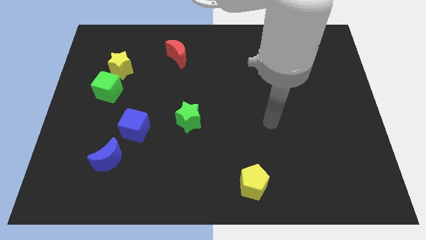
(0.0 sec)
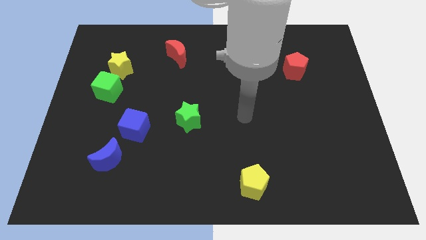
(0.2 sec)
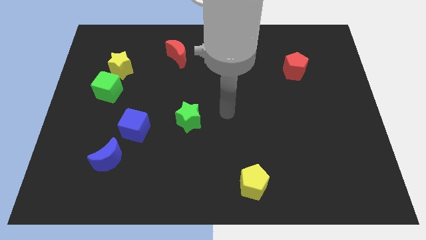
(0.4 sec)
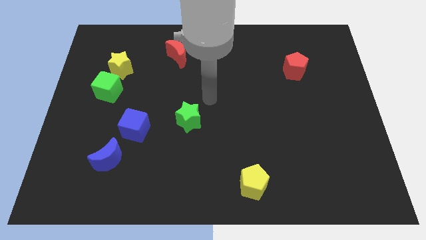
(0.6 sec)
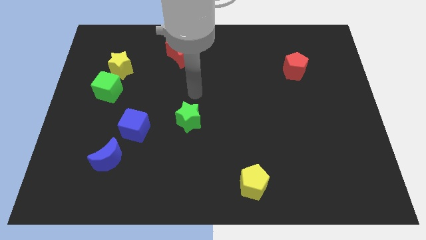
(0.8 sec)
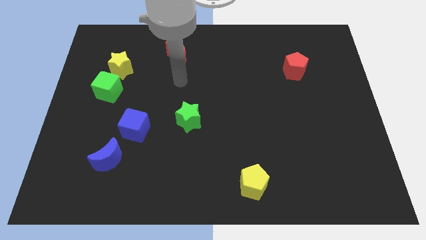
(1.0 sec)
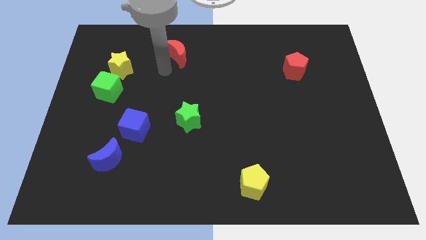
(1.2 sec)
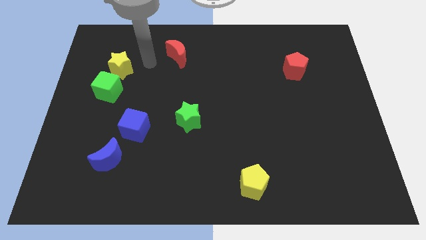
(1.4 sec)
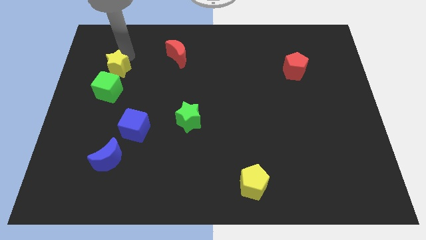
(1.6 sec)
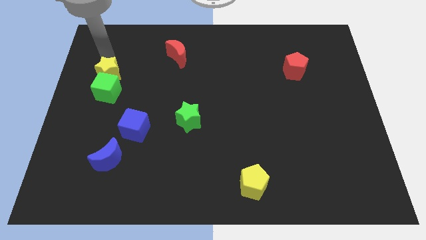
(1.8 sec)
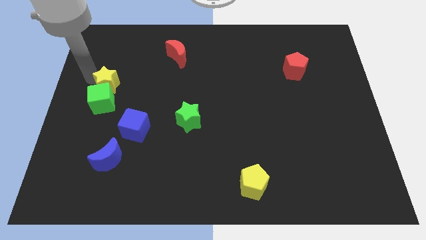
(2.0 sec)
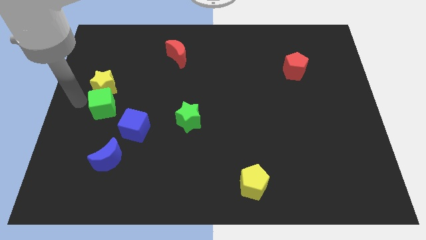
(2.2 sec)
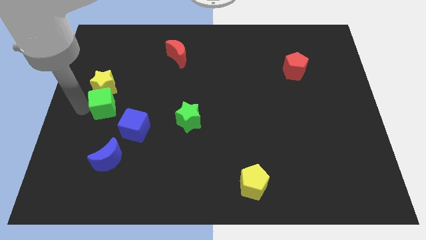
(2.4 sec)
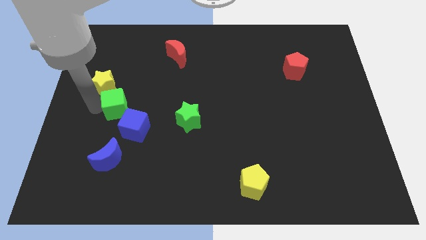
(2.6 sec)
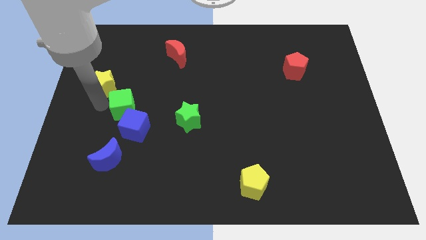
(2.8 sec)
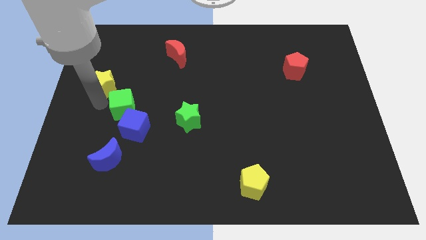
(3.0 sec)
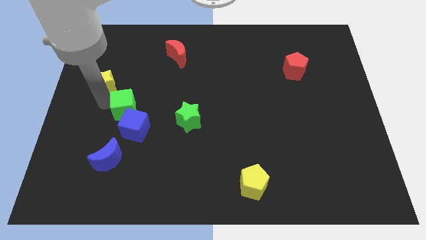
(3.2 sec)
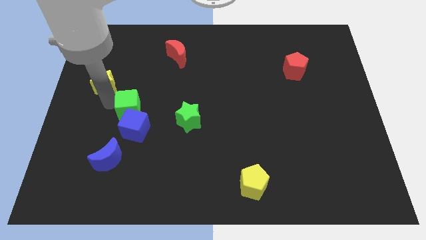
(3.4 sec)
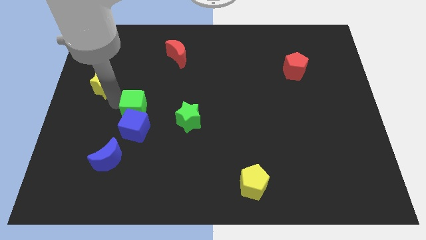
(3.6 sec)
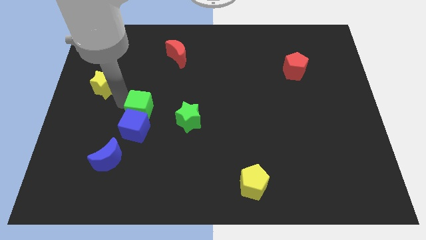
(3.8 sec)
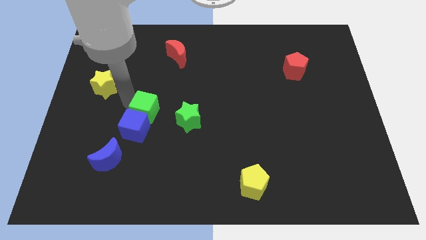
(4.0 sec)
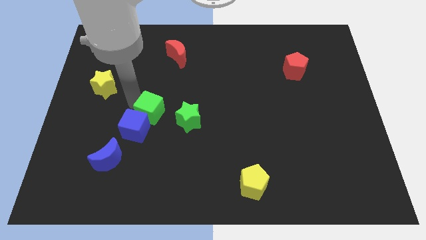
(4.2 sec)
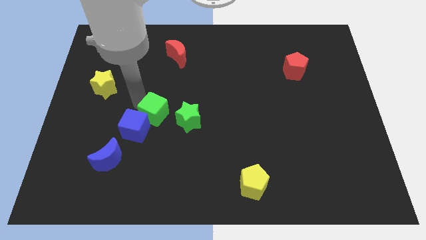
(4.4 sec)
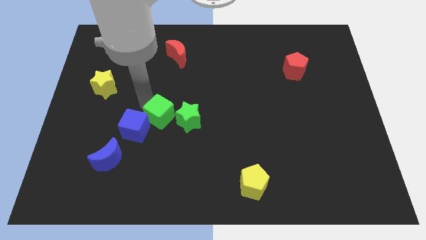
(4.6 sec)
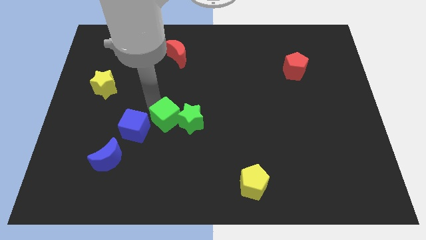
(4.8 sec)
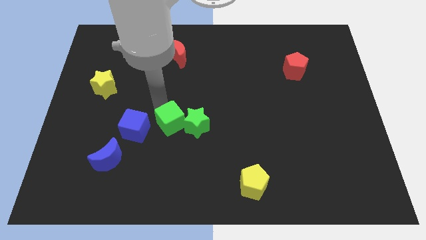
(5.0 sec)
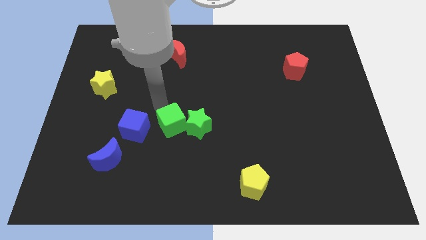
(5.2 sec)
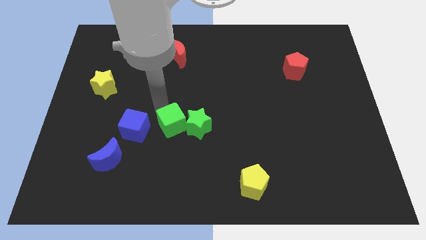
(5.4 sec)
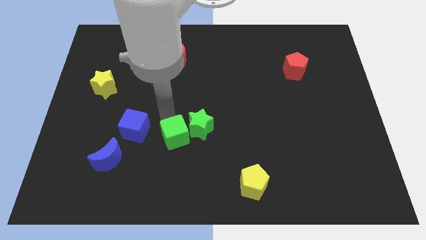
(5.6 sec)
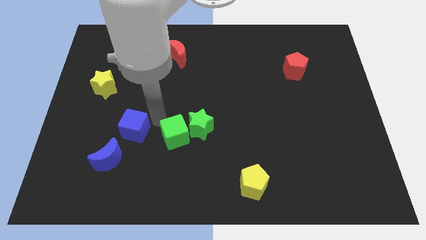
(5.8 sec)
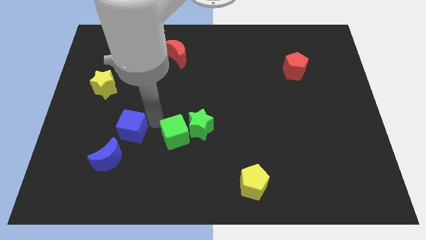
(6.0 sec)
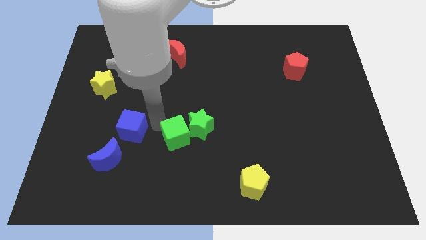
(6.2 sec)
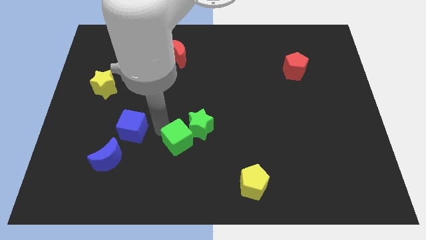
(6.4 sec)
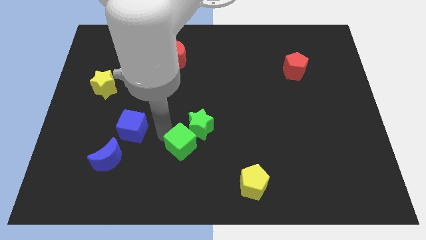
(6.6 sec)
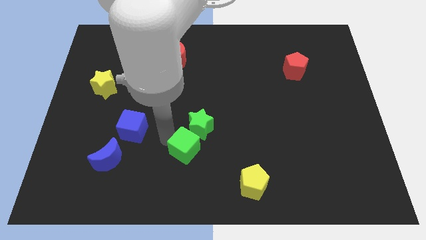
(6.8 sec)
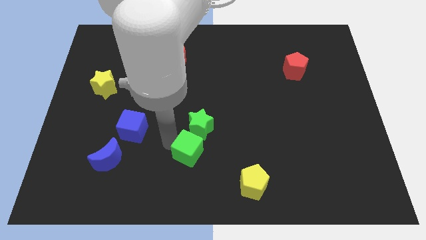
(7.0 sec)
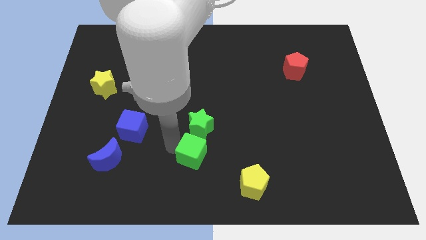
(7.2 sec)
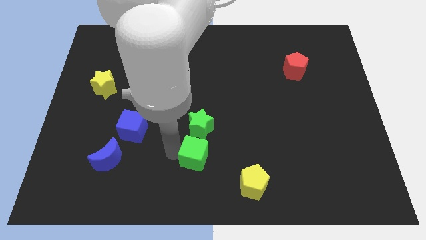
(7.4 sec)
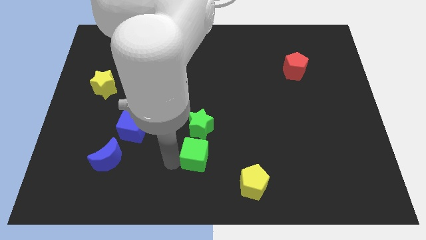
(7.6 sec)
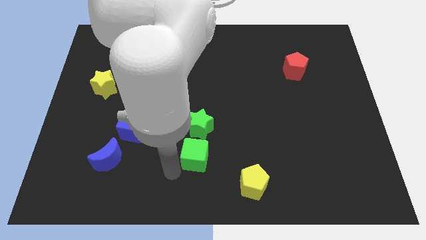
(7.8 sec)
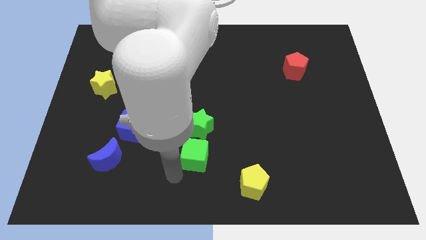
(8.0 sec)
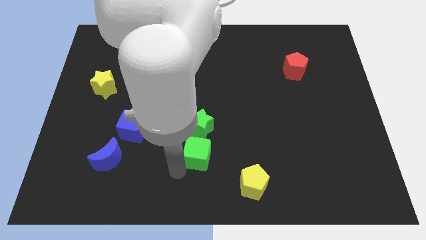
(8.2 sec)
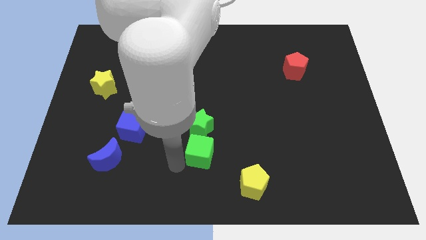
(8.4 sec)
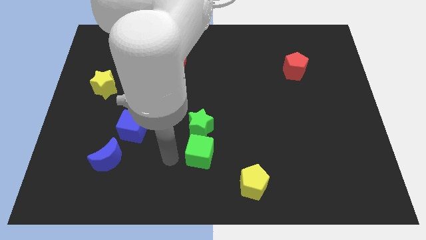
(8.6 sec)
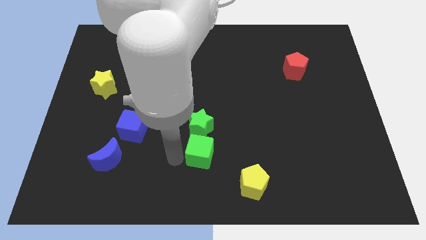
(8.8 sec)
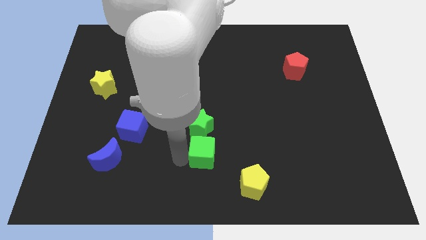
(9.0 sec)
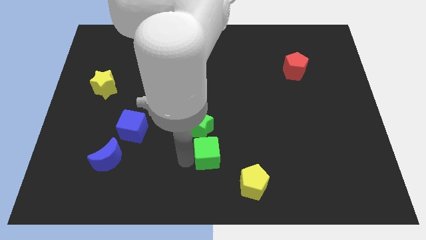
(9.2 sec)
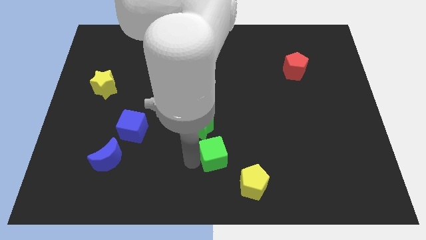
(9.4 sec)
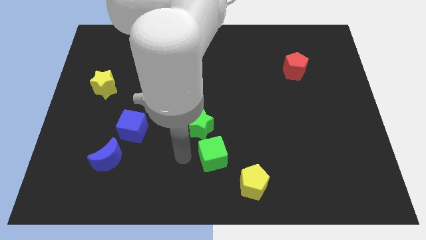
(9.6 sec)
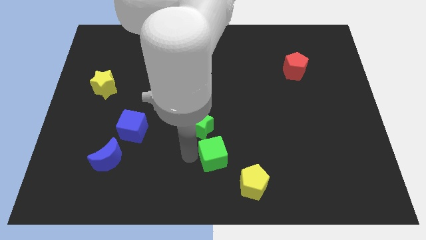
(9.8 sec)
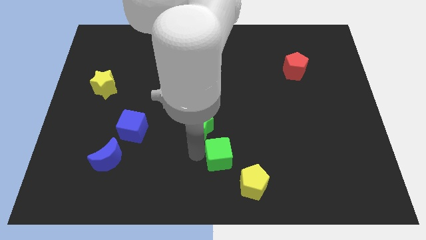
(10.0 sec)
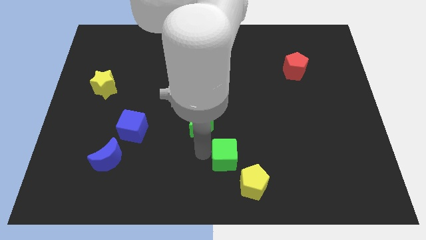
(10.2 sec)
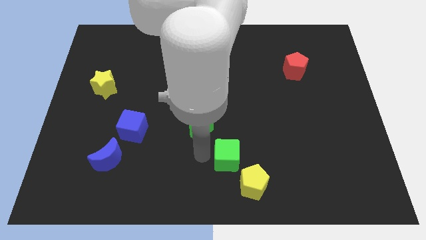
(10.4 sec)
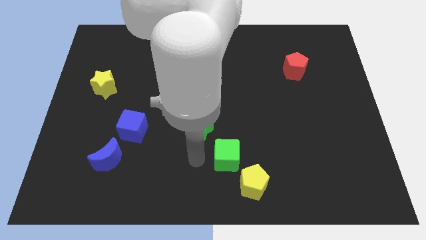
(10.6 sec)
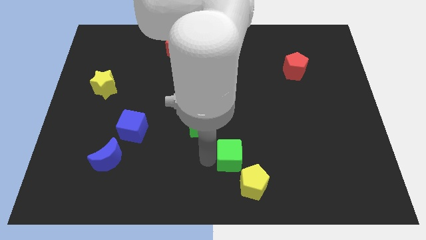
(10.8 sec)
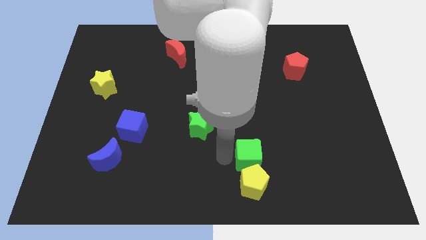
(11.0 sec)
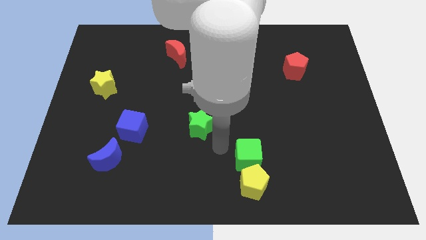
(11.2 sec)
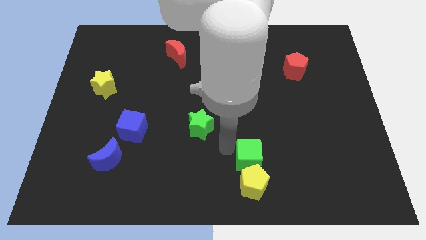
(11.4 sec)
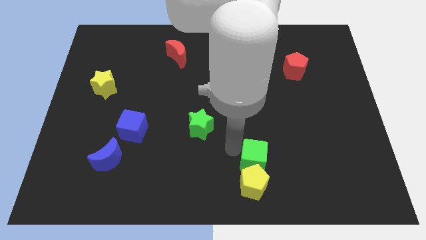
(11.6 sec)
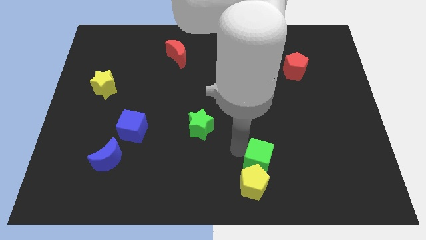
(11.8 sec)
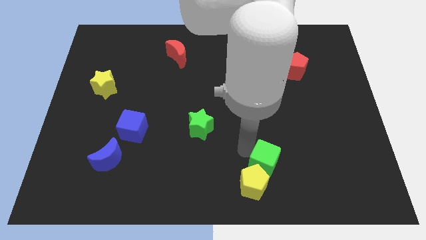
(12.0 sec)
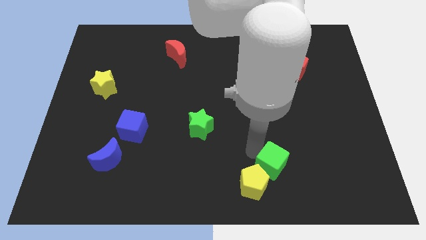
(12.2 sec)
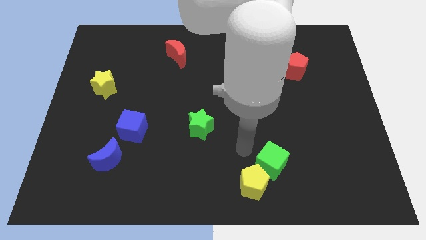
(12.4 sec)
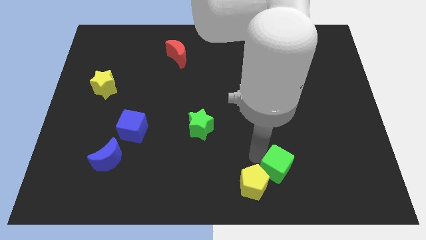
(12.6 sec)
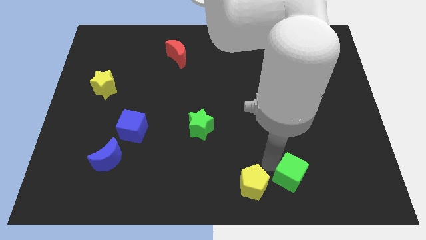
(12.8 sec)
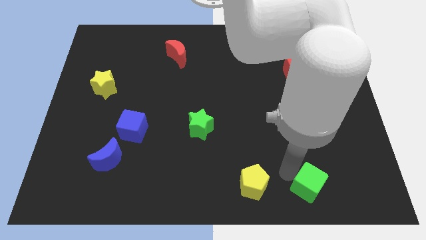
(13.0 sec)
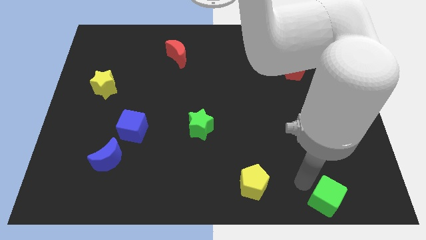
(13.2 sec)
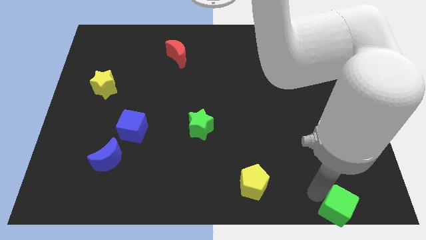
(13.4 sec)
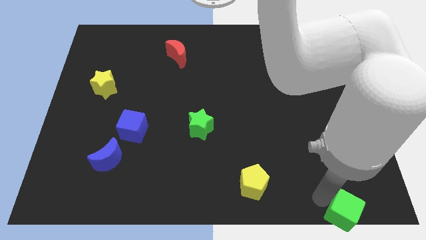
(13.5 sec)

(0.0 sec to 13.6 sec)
put the green cube to the lower right corner
